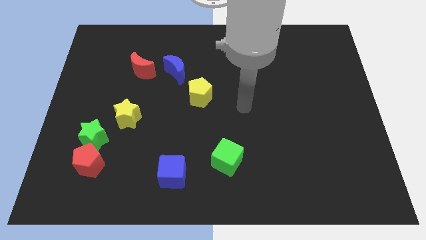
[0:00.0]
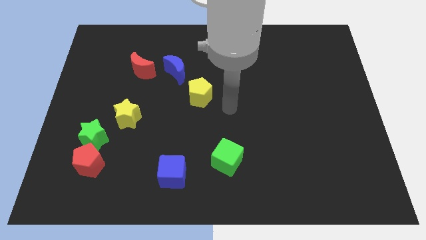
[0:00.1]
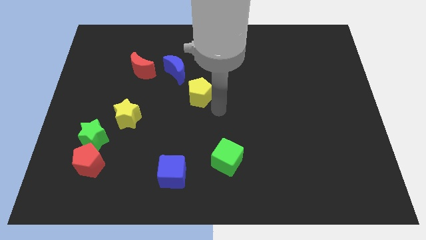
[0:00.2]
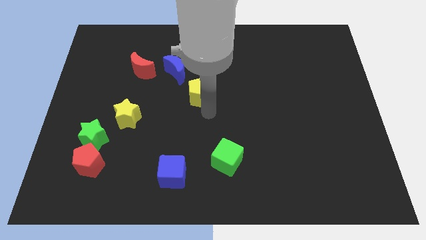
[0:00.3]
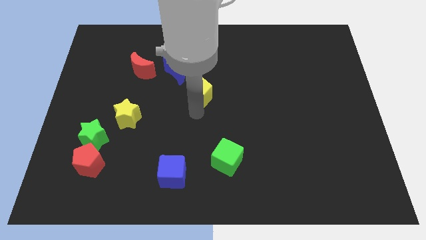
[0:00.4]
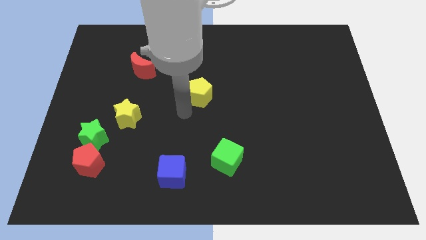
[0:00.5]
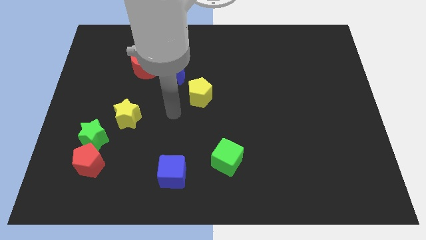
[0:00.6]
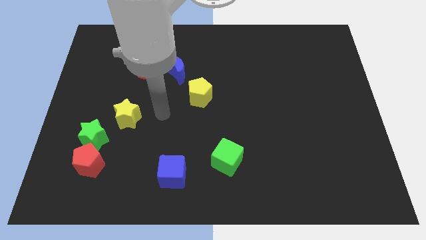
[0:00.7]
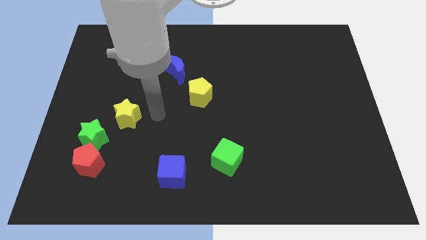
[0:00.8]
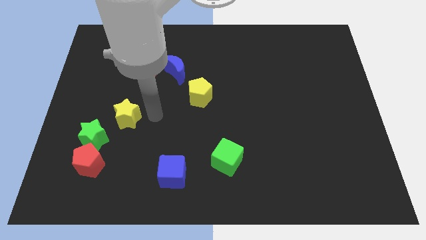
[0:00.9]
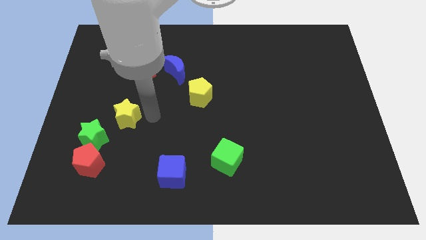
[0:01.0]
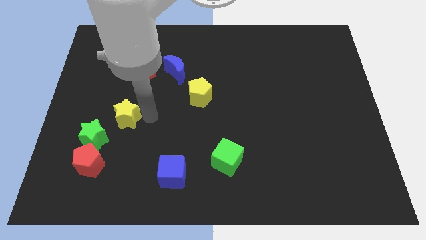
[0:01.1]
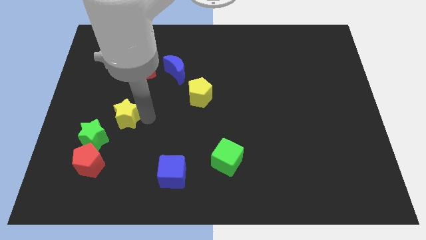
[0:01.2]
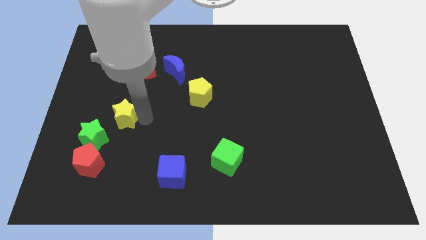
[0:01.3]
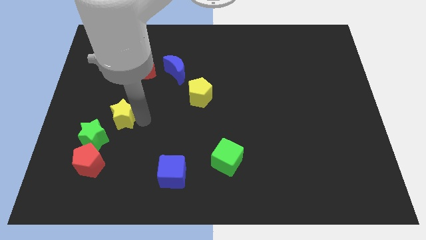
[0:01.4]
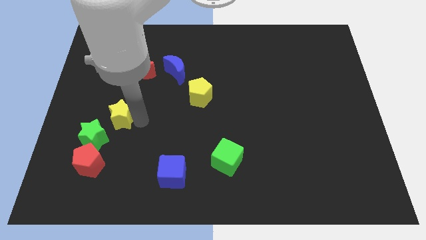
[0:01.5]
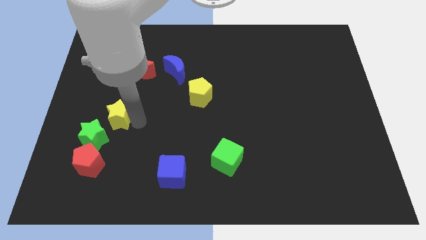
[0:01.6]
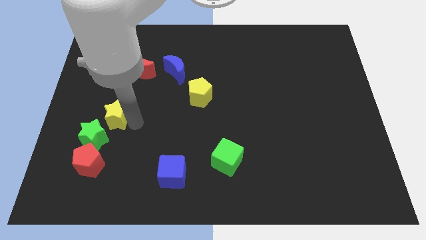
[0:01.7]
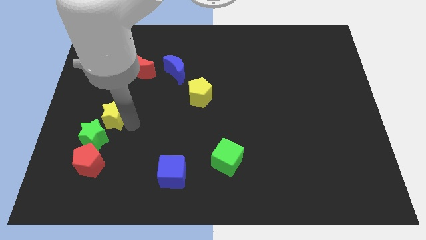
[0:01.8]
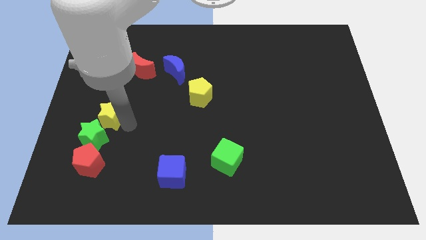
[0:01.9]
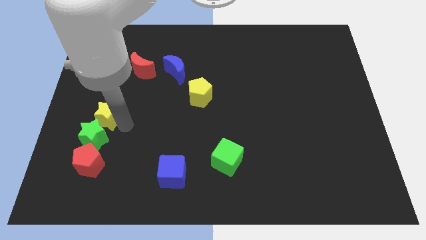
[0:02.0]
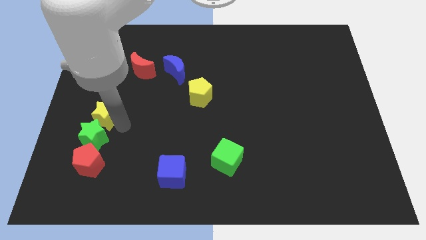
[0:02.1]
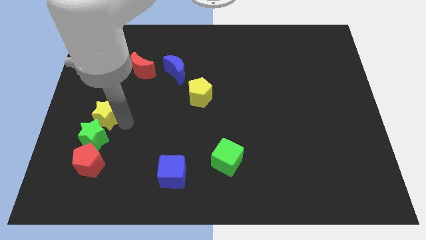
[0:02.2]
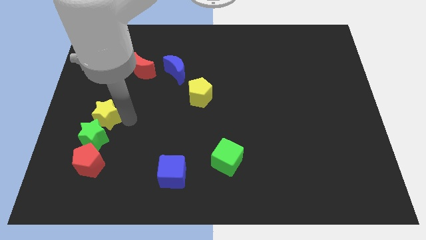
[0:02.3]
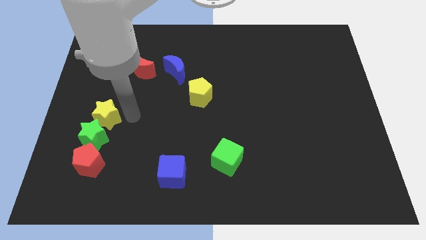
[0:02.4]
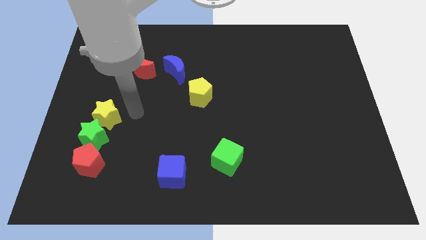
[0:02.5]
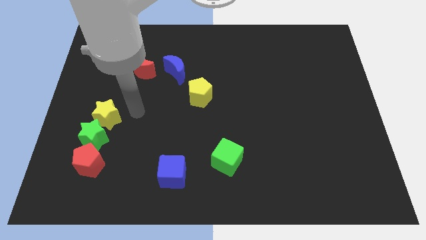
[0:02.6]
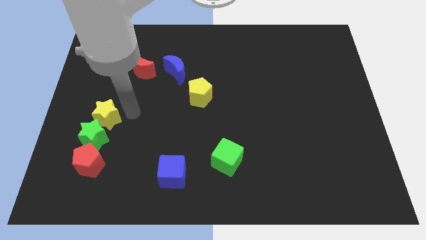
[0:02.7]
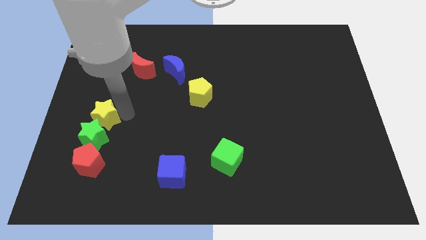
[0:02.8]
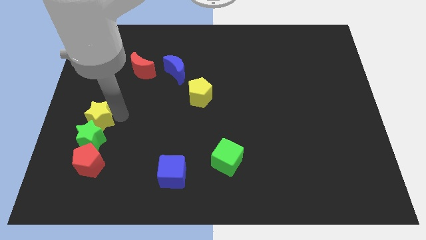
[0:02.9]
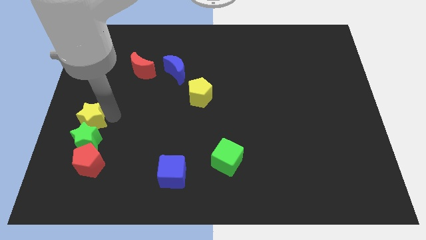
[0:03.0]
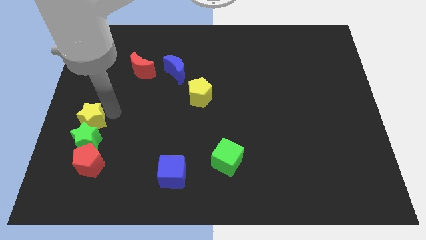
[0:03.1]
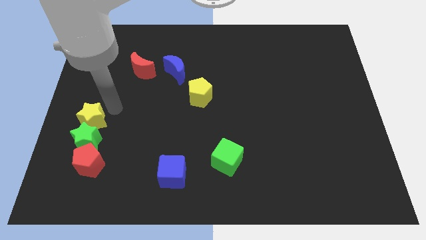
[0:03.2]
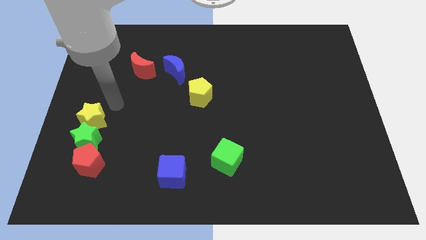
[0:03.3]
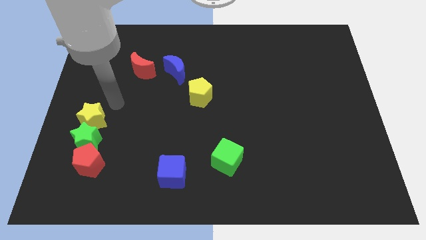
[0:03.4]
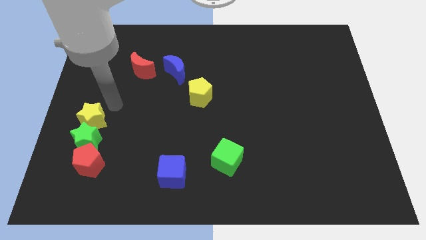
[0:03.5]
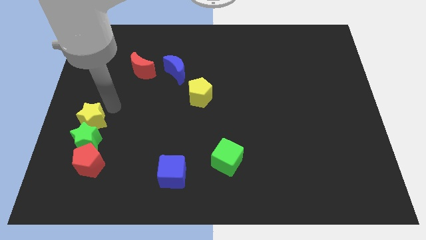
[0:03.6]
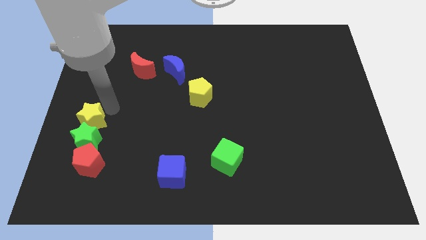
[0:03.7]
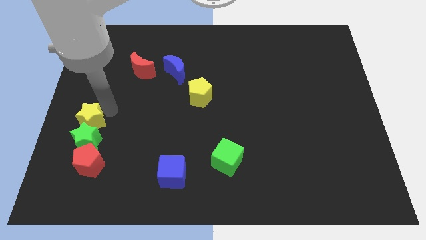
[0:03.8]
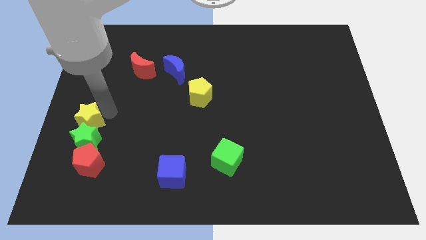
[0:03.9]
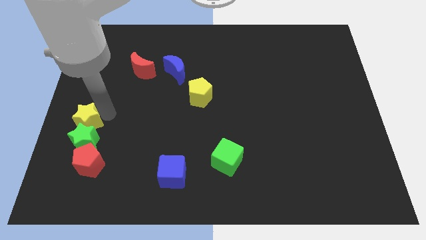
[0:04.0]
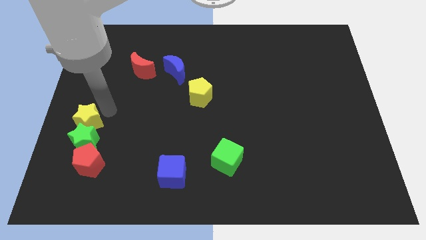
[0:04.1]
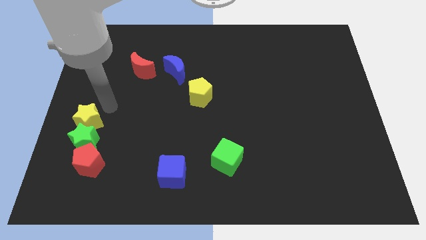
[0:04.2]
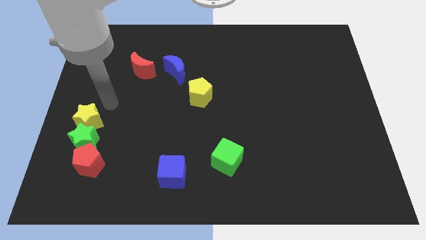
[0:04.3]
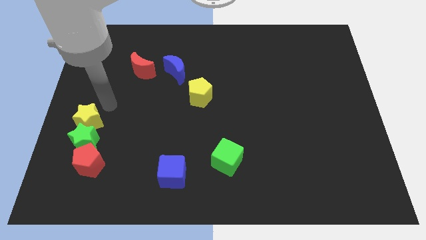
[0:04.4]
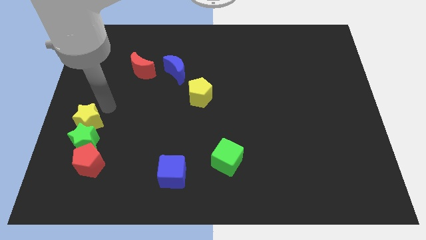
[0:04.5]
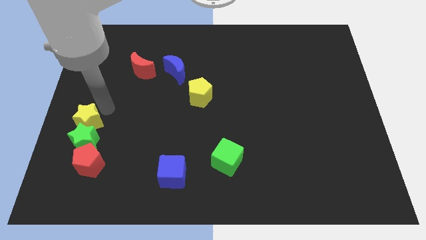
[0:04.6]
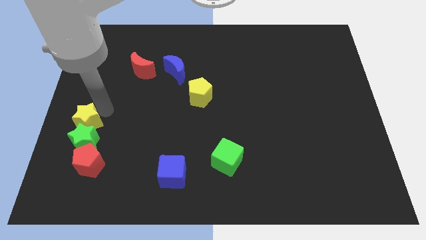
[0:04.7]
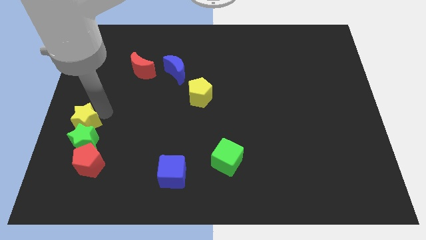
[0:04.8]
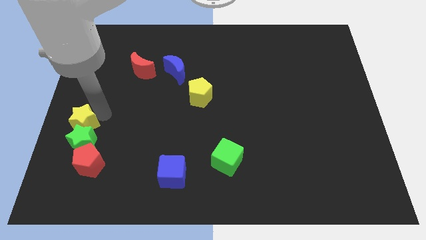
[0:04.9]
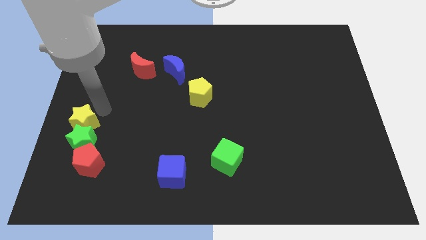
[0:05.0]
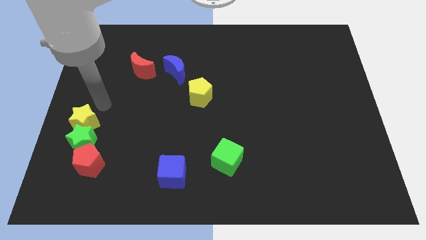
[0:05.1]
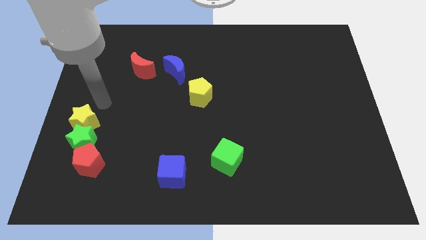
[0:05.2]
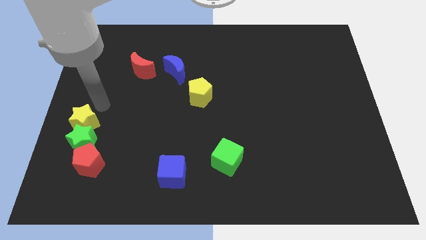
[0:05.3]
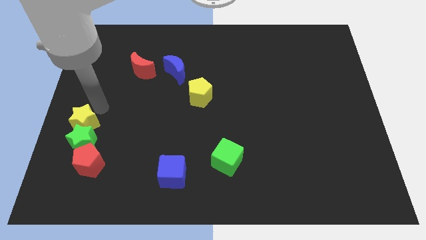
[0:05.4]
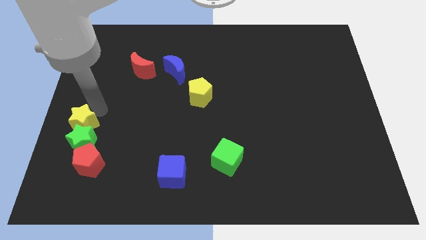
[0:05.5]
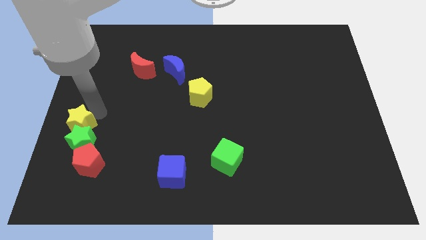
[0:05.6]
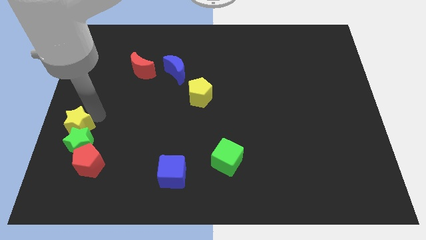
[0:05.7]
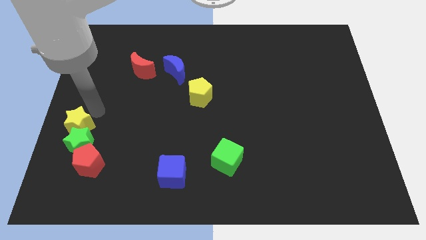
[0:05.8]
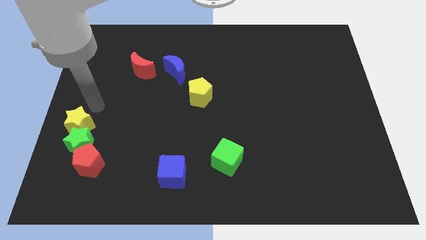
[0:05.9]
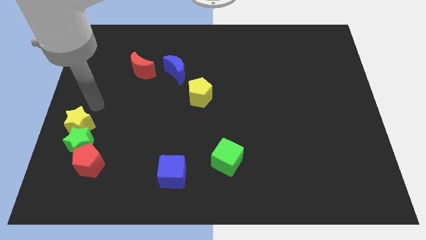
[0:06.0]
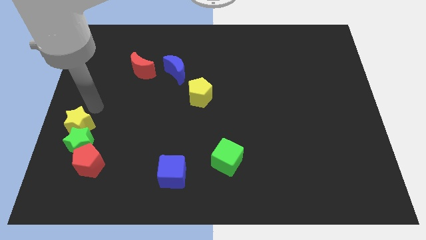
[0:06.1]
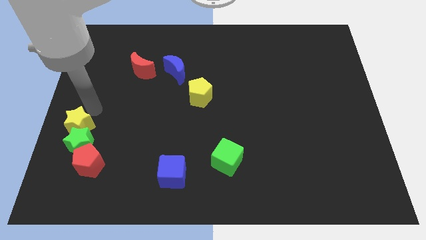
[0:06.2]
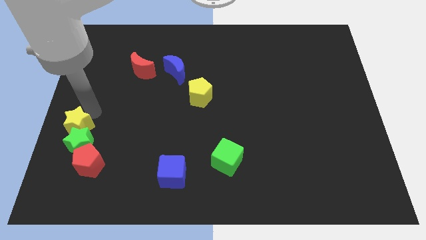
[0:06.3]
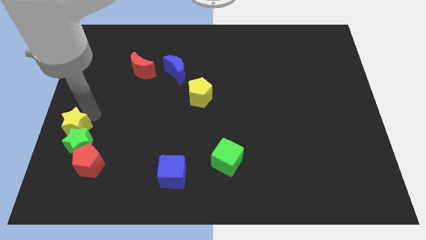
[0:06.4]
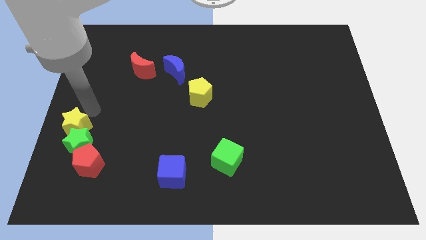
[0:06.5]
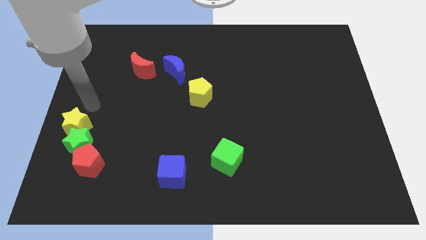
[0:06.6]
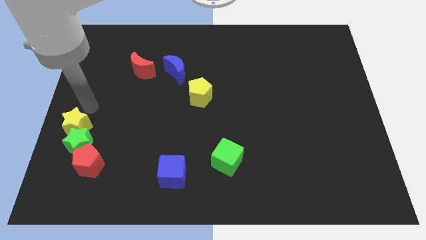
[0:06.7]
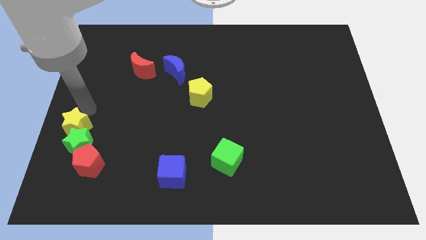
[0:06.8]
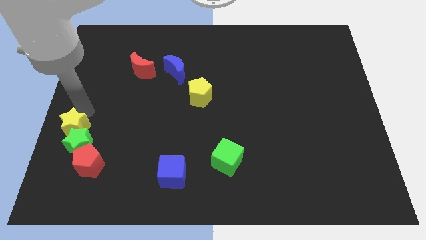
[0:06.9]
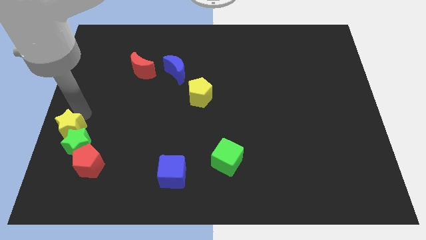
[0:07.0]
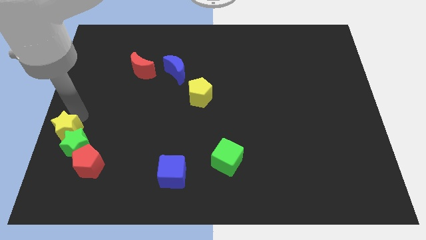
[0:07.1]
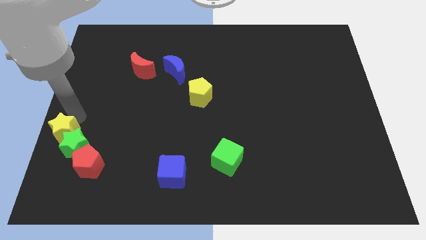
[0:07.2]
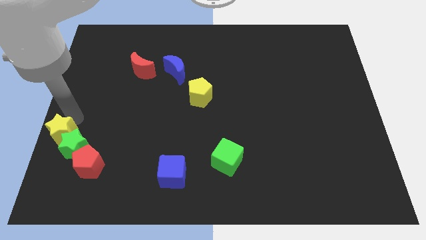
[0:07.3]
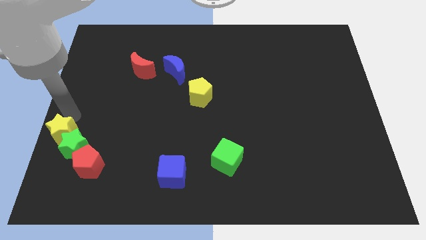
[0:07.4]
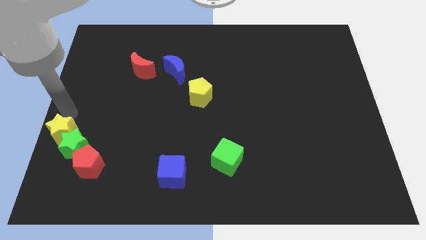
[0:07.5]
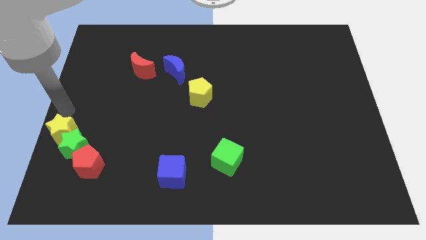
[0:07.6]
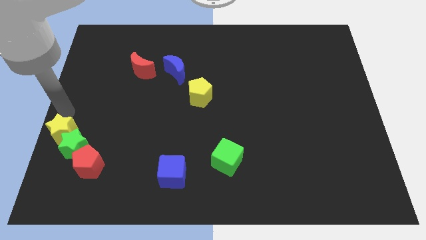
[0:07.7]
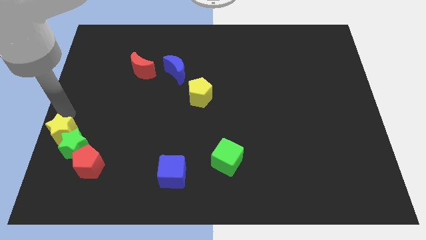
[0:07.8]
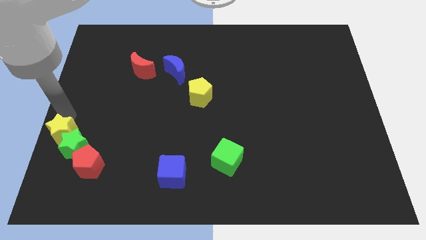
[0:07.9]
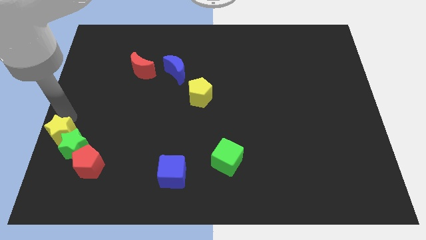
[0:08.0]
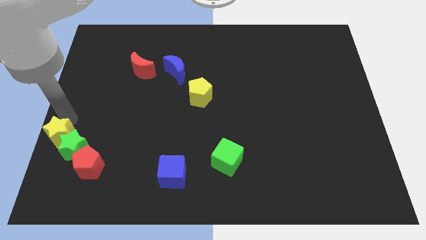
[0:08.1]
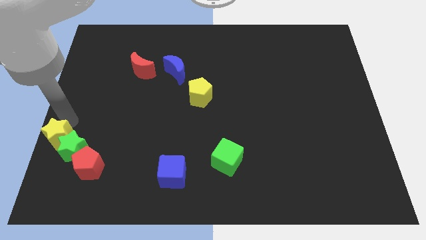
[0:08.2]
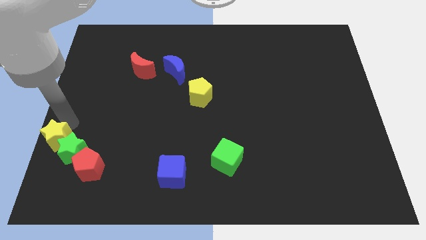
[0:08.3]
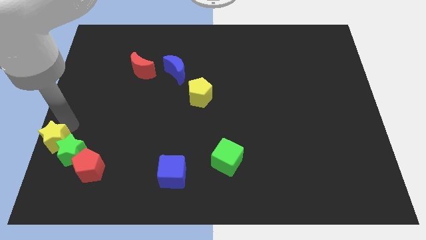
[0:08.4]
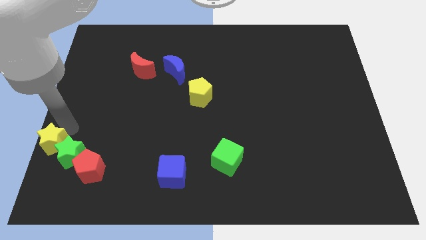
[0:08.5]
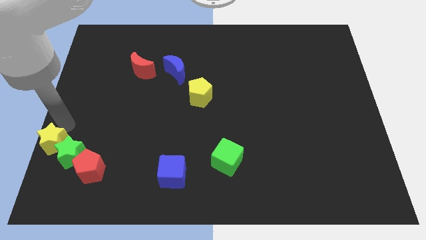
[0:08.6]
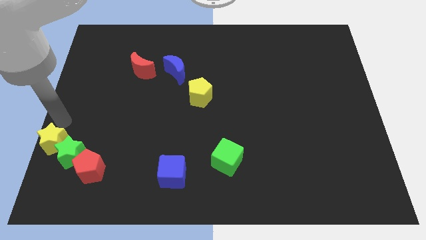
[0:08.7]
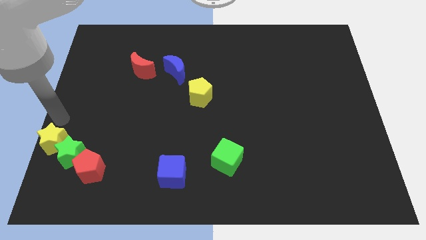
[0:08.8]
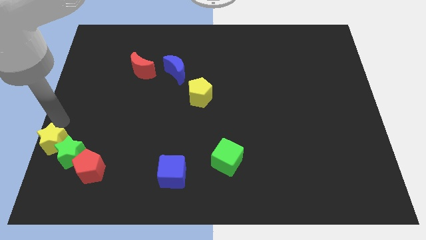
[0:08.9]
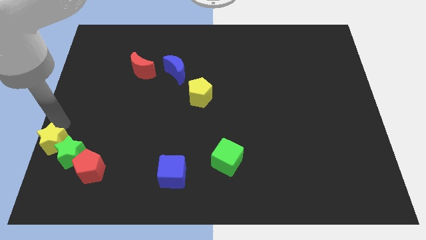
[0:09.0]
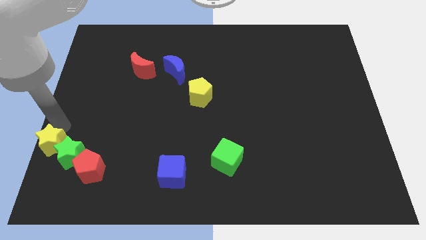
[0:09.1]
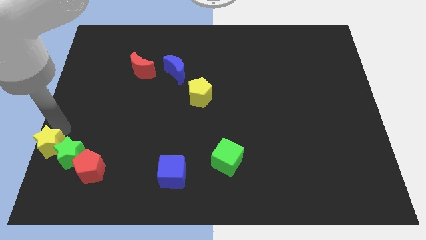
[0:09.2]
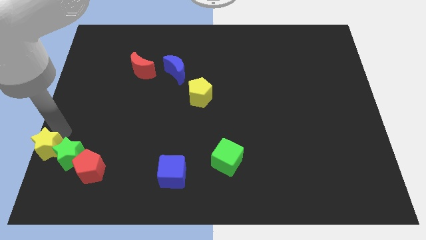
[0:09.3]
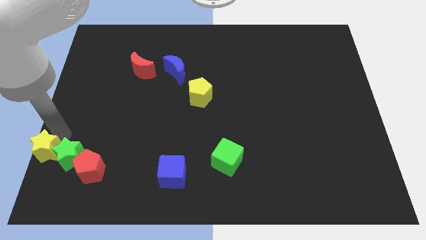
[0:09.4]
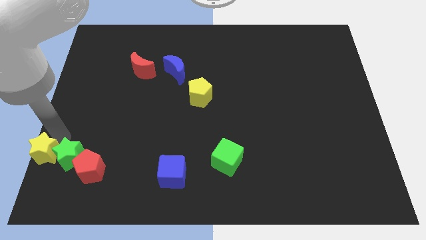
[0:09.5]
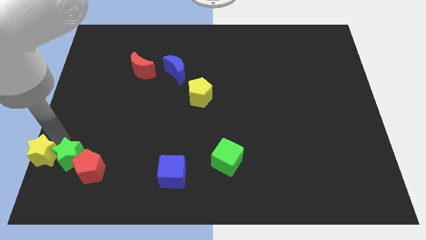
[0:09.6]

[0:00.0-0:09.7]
slide the yellow star to the bottom left
